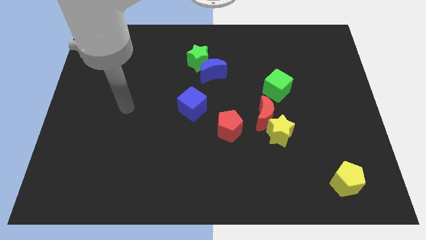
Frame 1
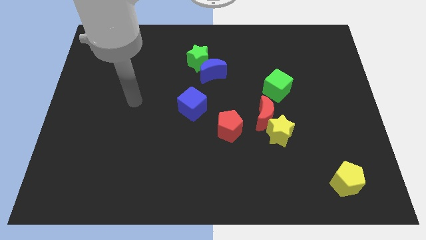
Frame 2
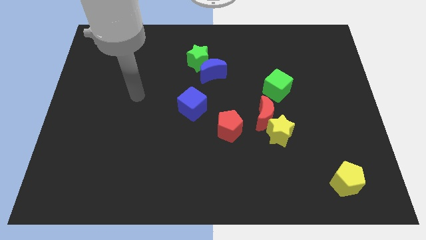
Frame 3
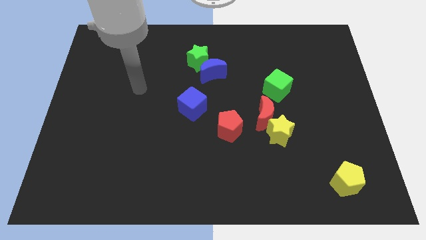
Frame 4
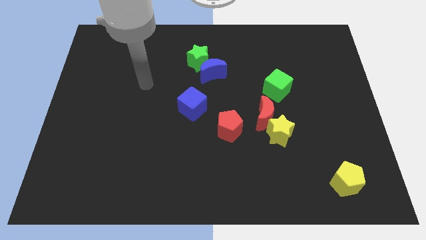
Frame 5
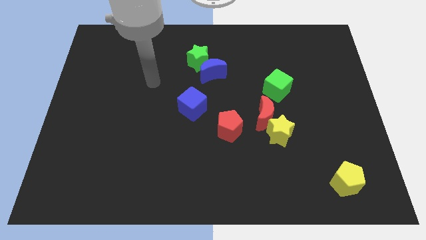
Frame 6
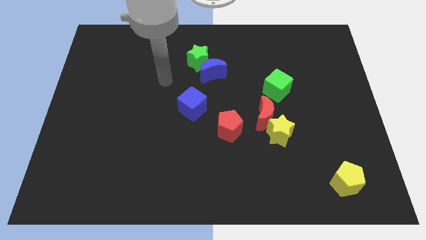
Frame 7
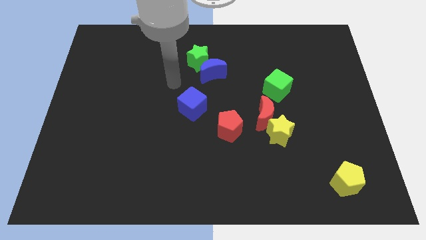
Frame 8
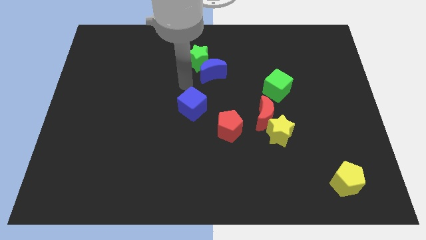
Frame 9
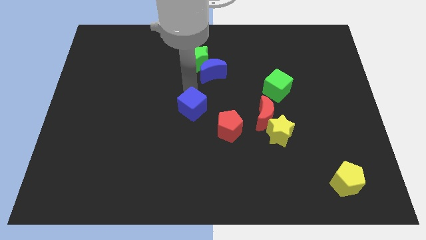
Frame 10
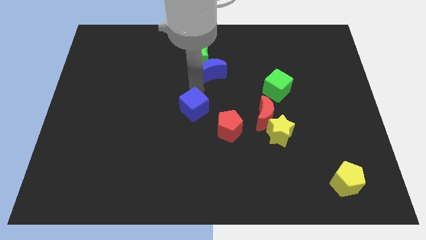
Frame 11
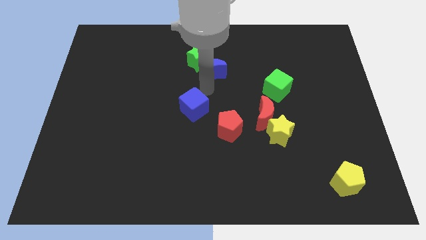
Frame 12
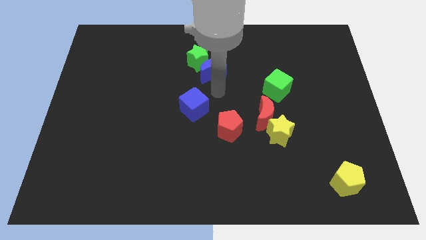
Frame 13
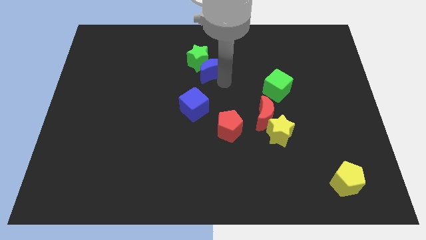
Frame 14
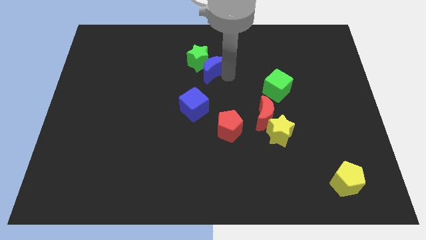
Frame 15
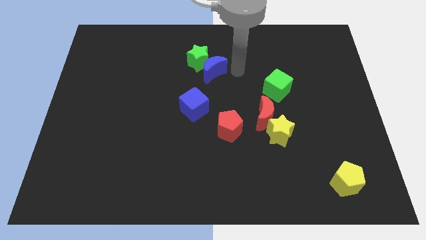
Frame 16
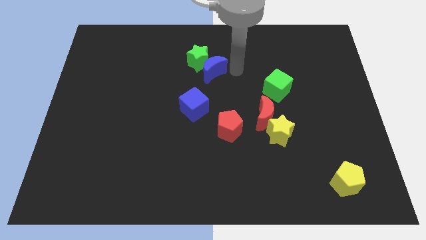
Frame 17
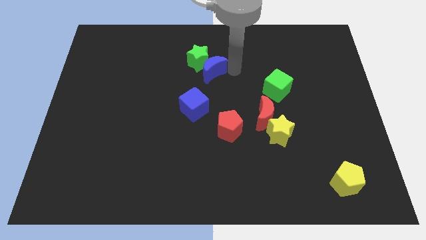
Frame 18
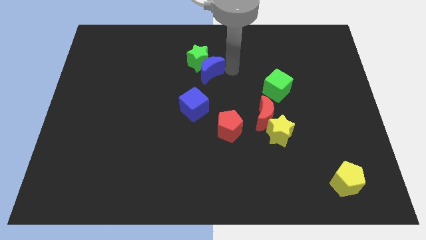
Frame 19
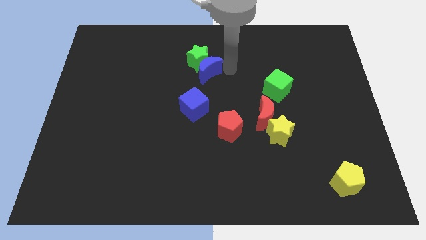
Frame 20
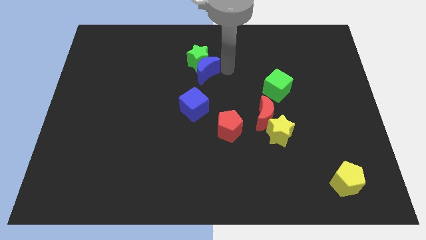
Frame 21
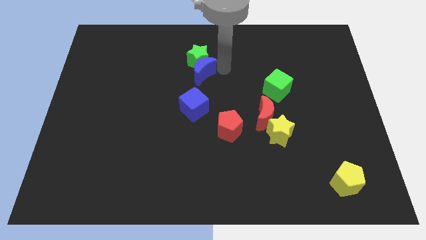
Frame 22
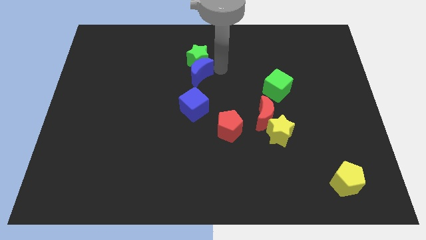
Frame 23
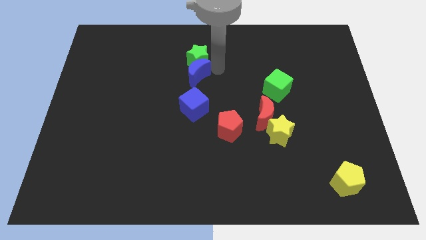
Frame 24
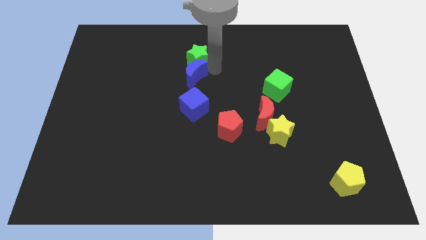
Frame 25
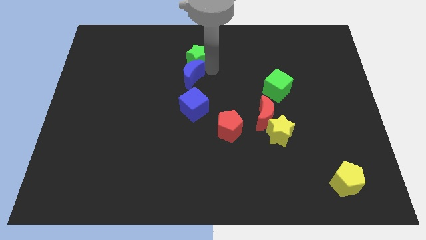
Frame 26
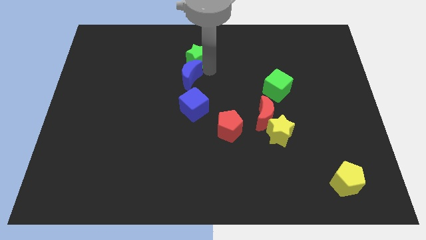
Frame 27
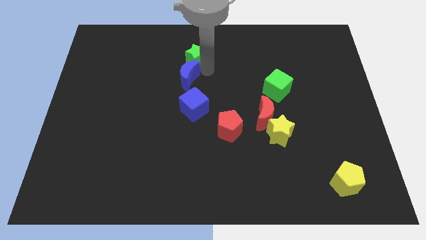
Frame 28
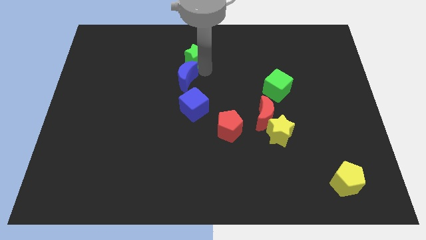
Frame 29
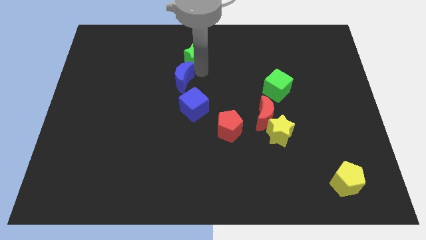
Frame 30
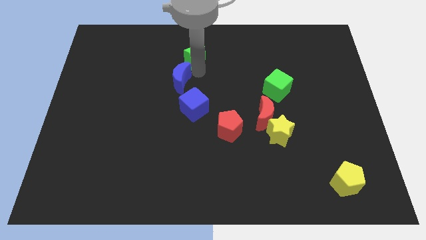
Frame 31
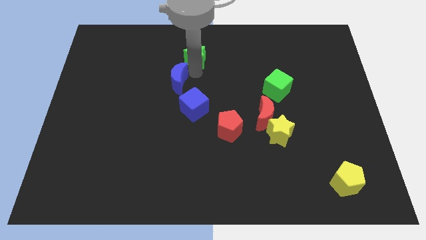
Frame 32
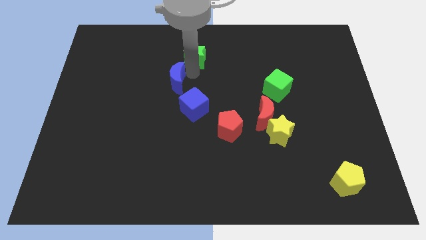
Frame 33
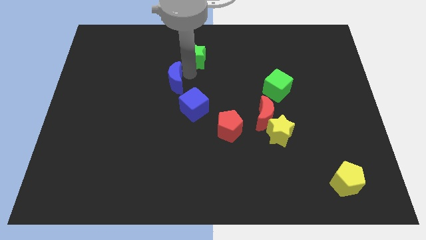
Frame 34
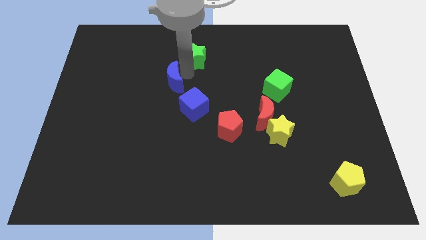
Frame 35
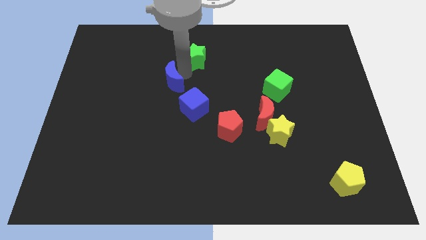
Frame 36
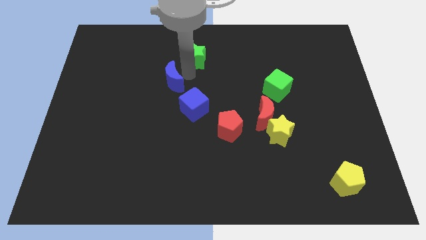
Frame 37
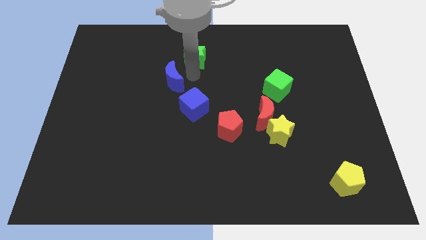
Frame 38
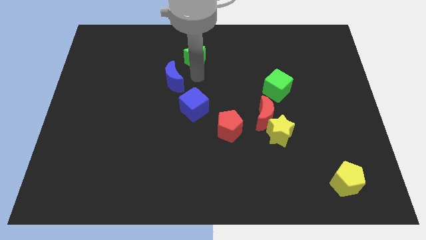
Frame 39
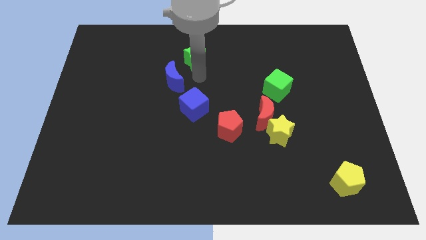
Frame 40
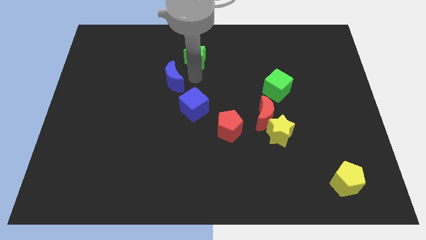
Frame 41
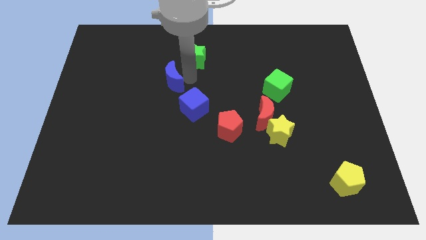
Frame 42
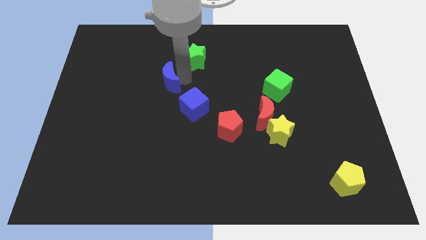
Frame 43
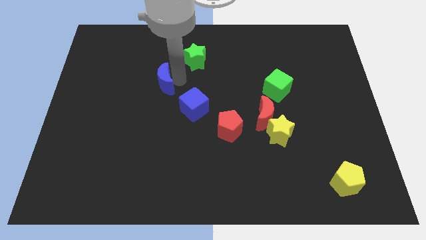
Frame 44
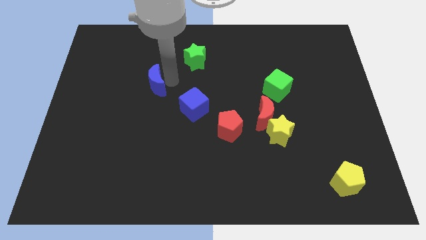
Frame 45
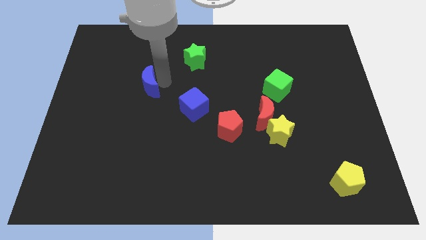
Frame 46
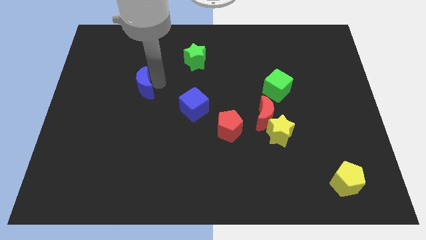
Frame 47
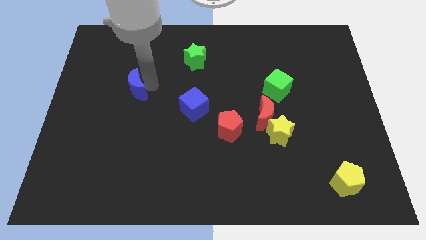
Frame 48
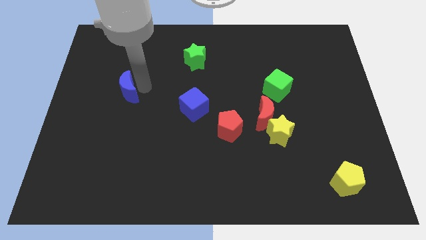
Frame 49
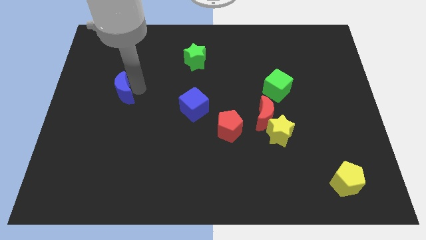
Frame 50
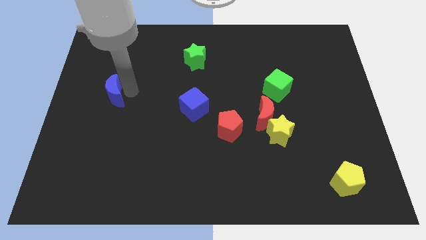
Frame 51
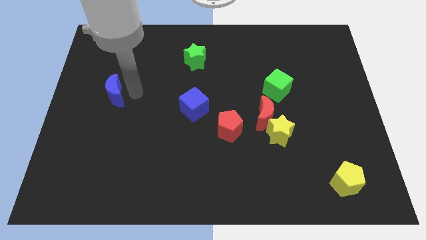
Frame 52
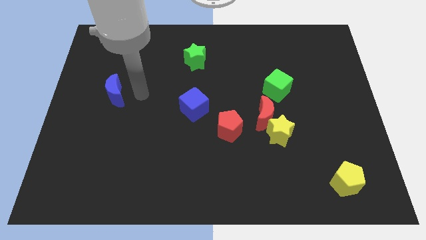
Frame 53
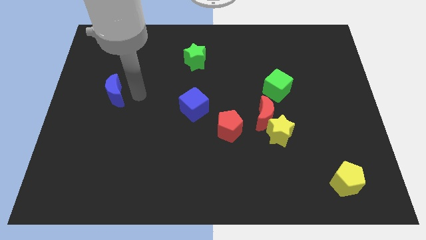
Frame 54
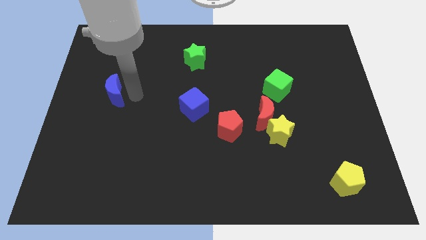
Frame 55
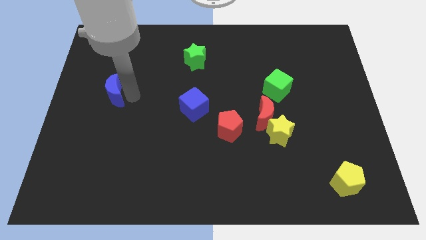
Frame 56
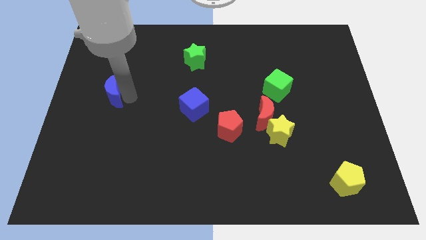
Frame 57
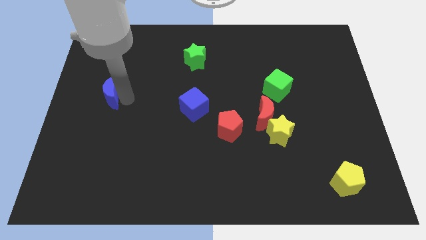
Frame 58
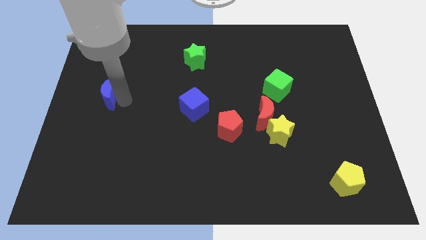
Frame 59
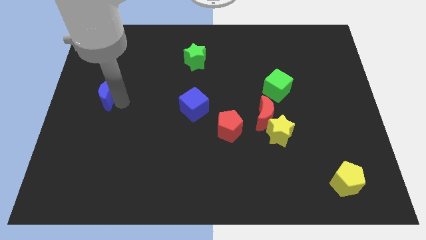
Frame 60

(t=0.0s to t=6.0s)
push the blue moon to the left side of the board
